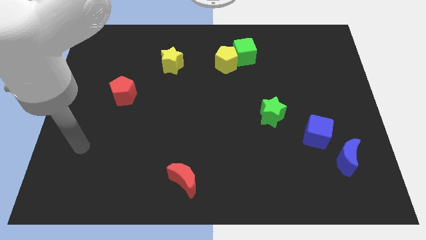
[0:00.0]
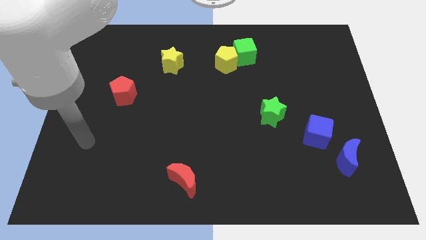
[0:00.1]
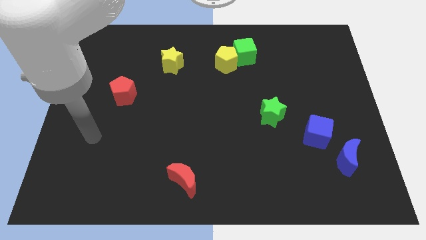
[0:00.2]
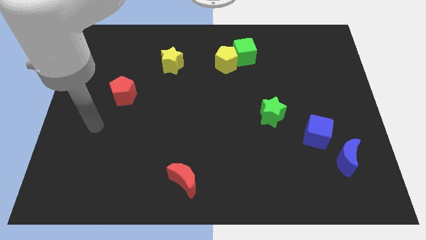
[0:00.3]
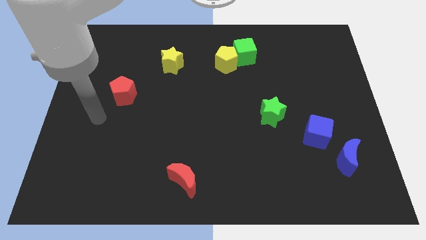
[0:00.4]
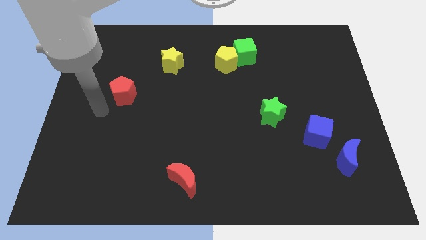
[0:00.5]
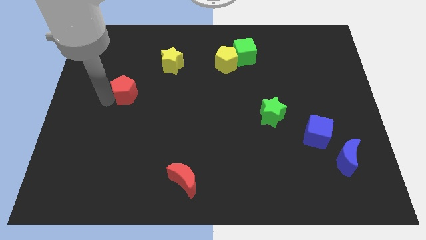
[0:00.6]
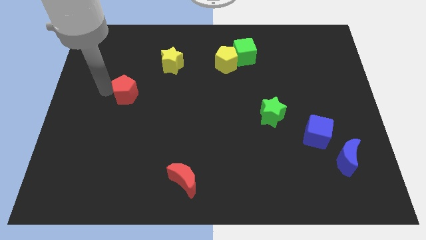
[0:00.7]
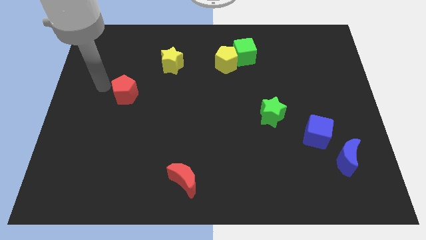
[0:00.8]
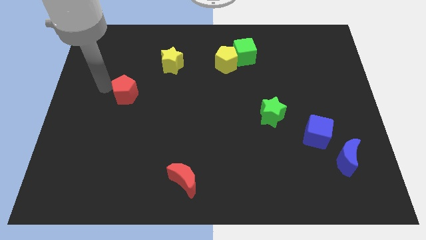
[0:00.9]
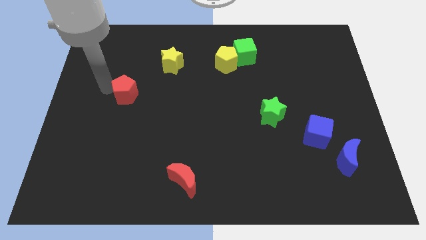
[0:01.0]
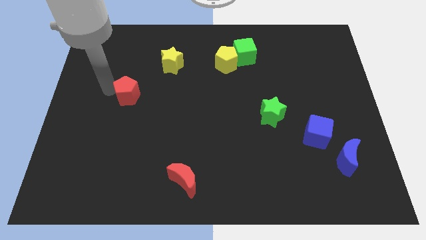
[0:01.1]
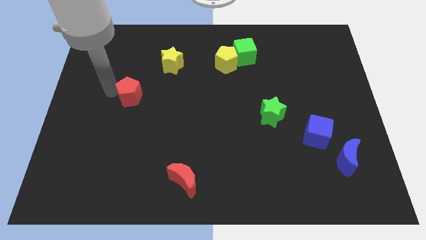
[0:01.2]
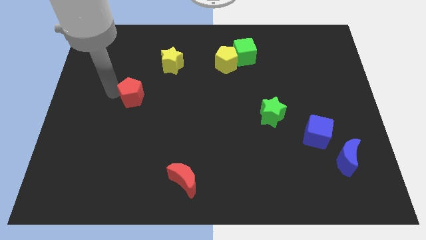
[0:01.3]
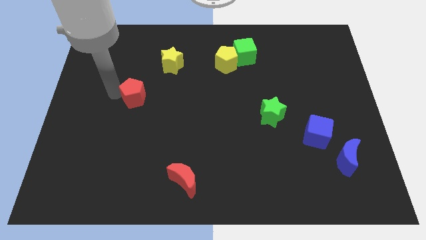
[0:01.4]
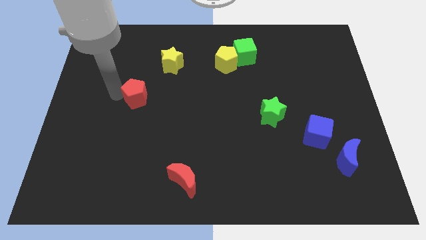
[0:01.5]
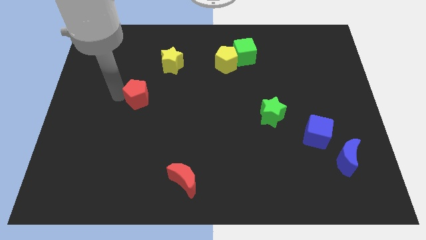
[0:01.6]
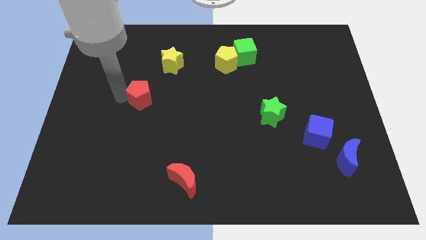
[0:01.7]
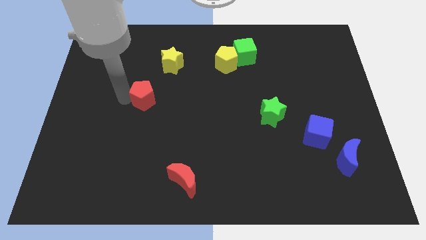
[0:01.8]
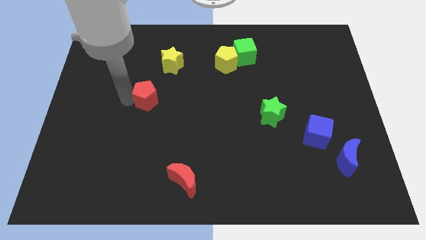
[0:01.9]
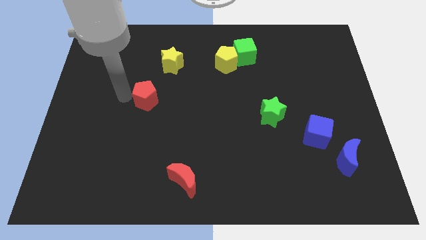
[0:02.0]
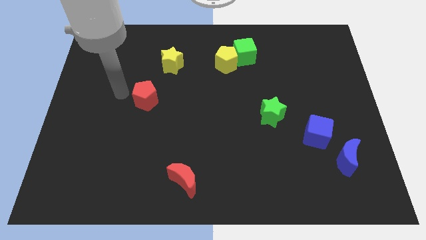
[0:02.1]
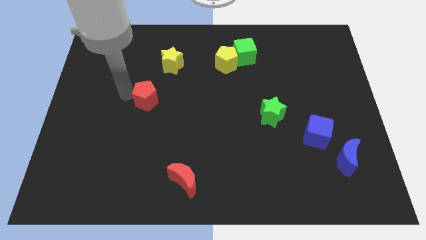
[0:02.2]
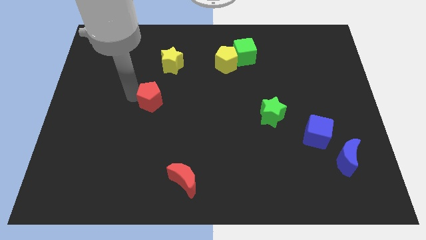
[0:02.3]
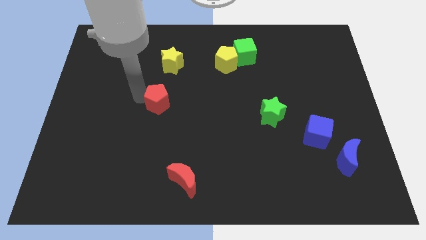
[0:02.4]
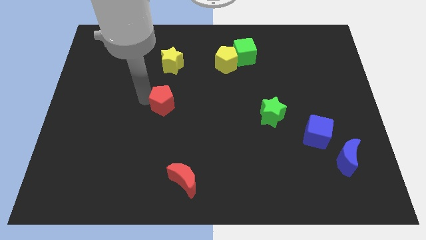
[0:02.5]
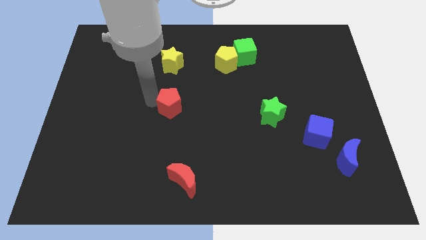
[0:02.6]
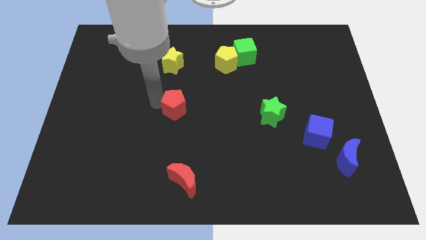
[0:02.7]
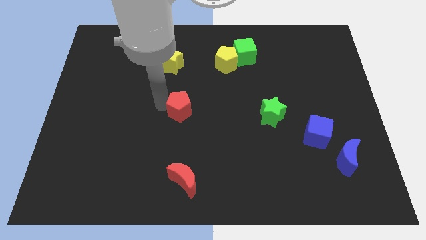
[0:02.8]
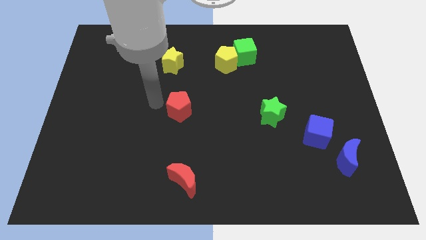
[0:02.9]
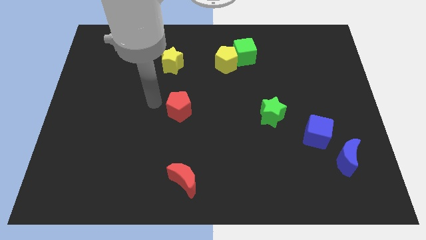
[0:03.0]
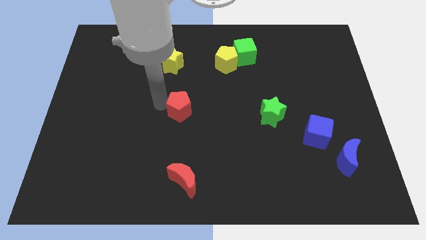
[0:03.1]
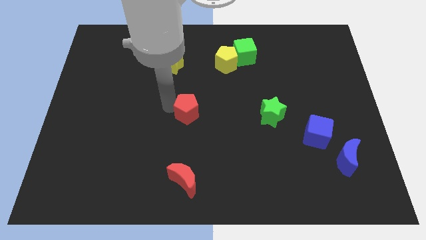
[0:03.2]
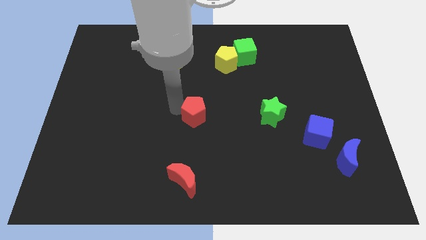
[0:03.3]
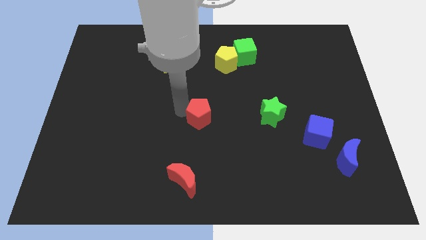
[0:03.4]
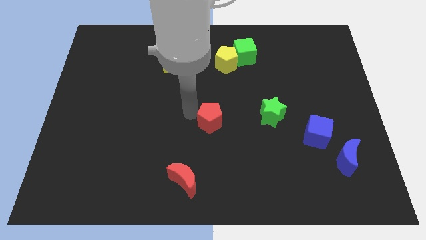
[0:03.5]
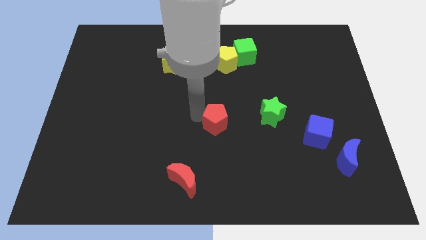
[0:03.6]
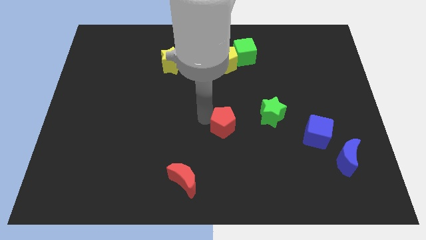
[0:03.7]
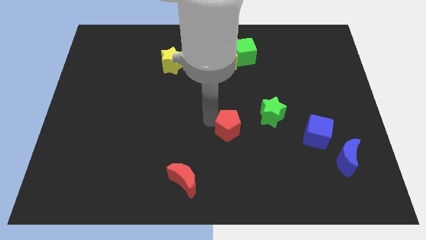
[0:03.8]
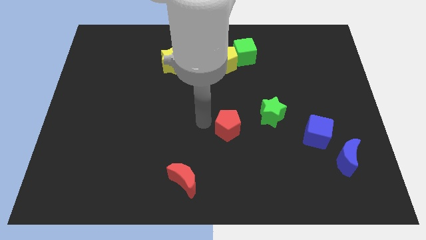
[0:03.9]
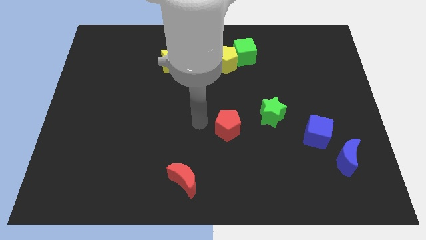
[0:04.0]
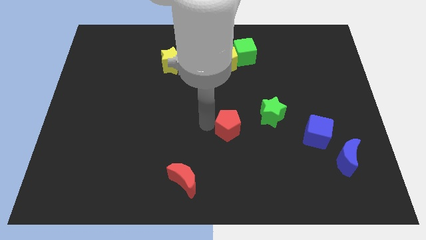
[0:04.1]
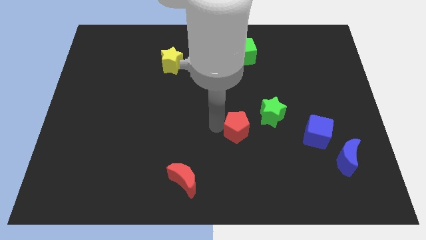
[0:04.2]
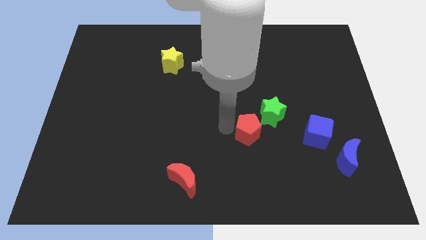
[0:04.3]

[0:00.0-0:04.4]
slide the red pentagon left of the blue cube

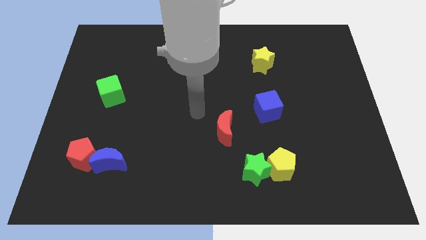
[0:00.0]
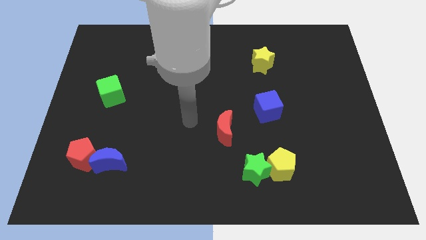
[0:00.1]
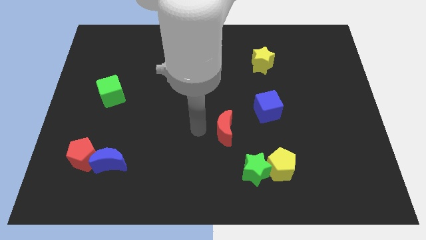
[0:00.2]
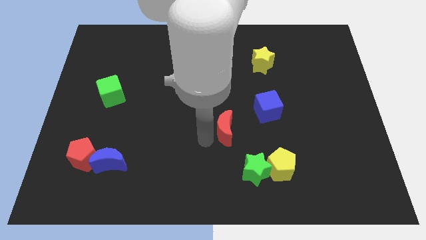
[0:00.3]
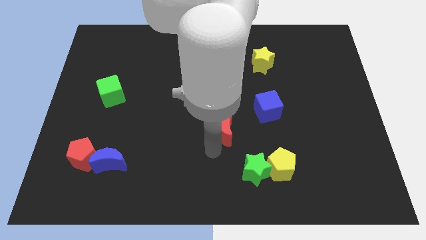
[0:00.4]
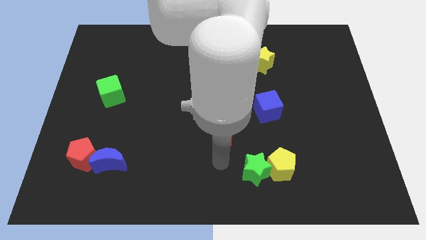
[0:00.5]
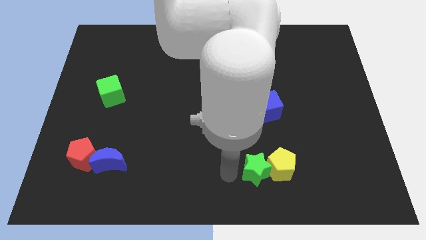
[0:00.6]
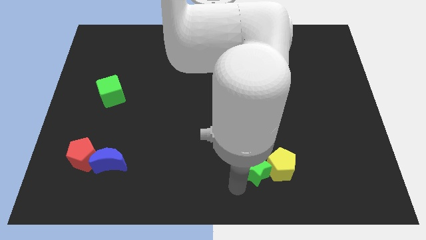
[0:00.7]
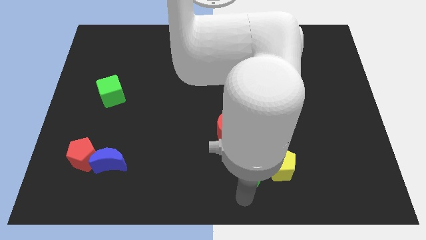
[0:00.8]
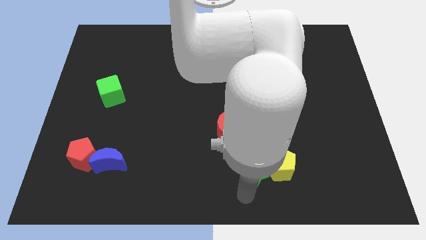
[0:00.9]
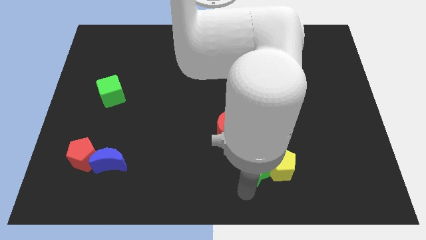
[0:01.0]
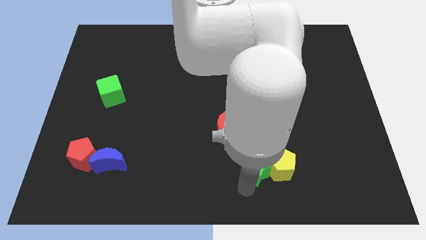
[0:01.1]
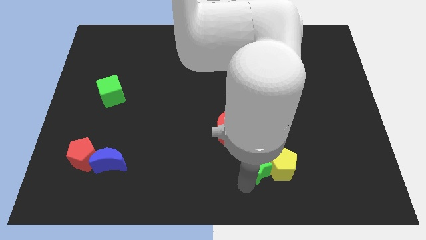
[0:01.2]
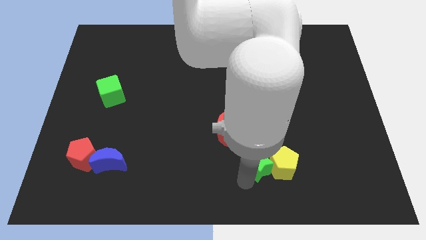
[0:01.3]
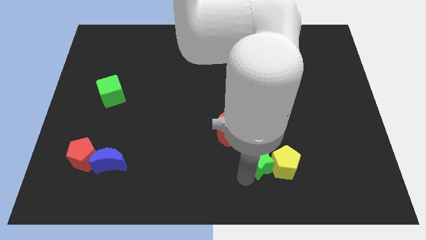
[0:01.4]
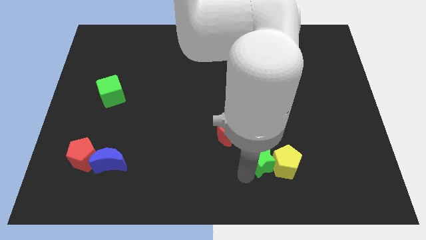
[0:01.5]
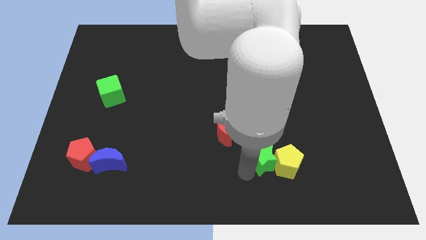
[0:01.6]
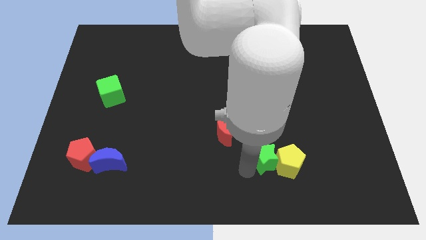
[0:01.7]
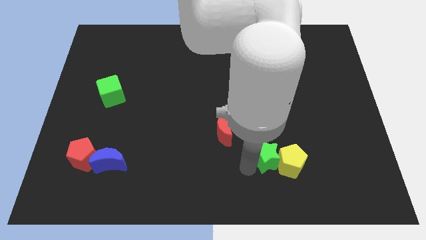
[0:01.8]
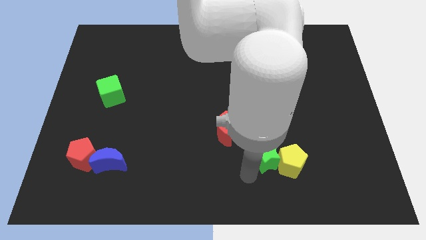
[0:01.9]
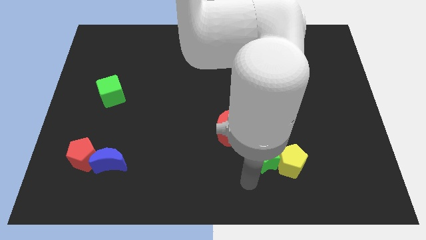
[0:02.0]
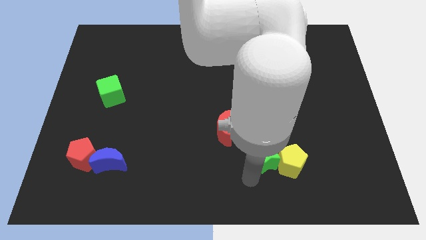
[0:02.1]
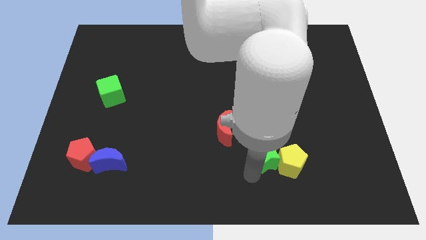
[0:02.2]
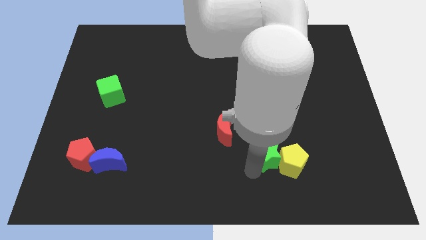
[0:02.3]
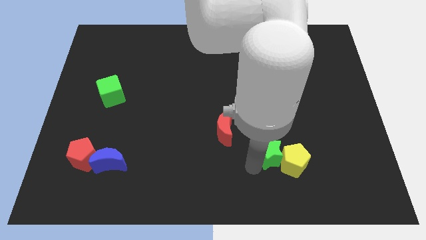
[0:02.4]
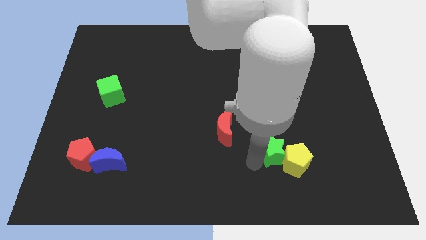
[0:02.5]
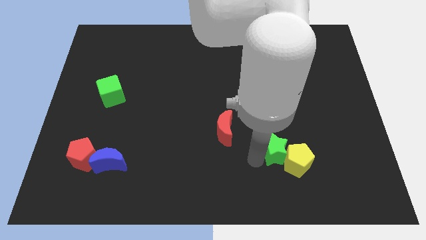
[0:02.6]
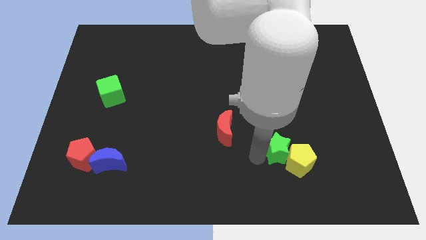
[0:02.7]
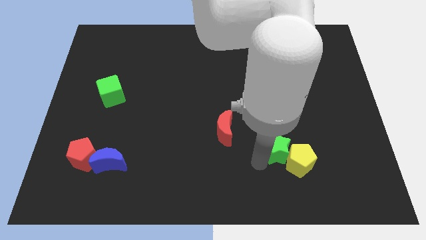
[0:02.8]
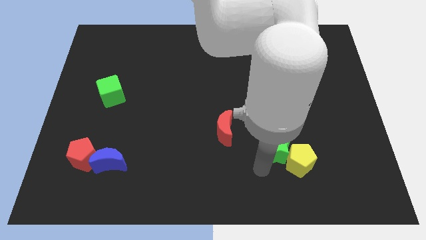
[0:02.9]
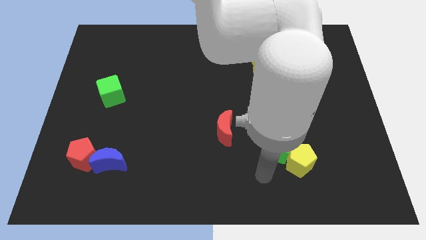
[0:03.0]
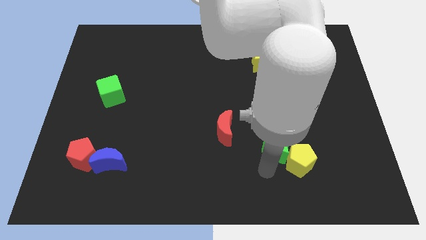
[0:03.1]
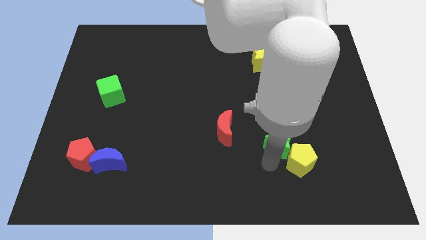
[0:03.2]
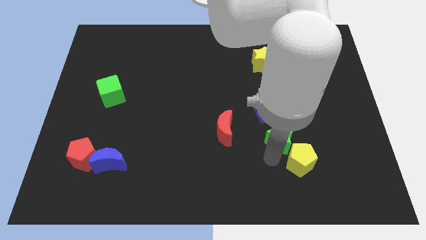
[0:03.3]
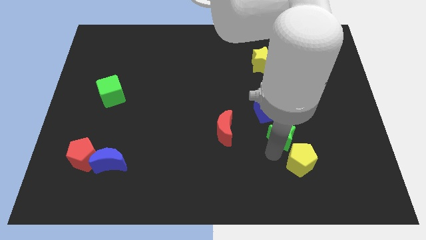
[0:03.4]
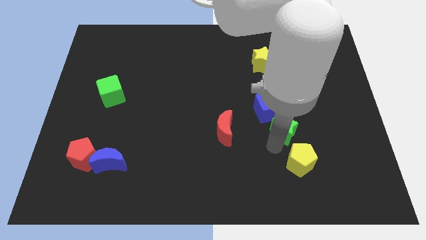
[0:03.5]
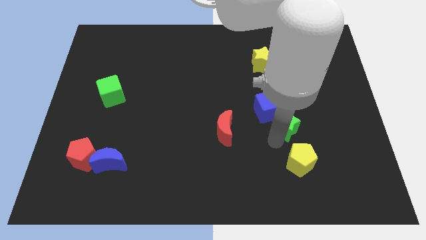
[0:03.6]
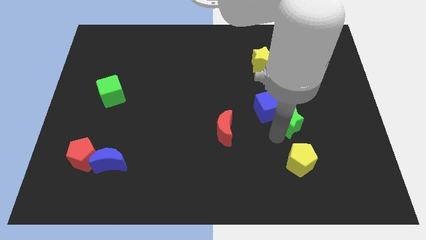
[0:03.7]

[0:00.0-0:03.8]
push the green star just right of the blue cube
